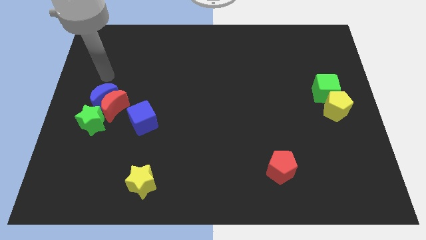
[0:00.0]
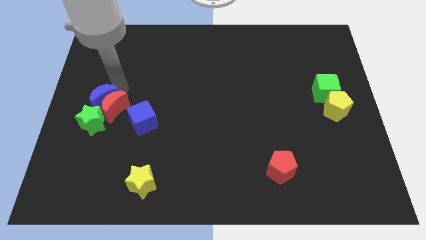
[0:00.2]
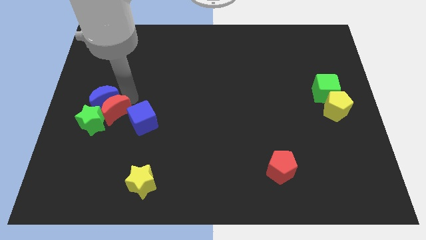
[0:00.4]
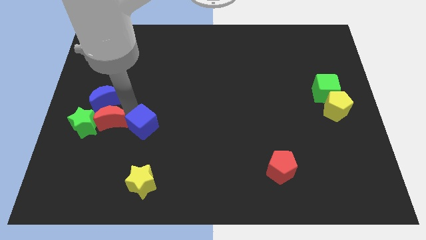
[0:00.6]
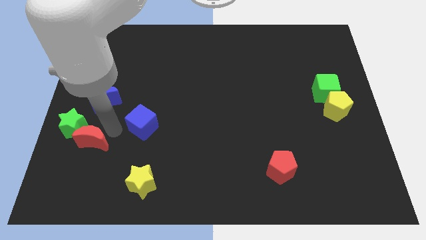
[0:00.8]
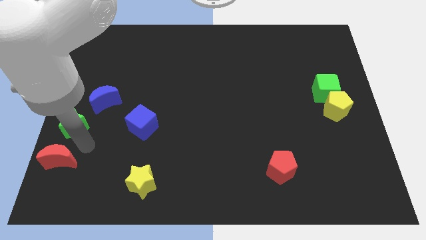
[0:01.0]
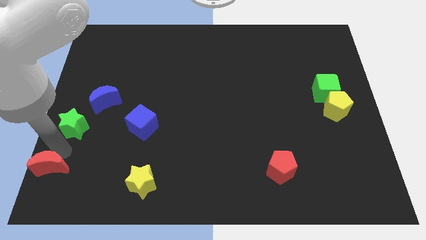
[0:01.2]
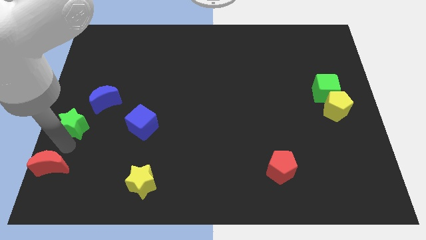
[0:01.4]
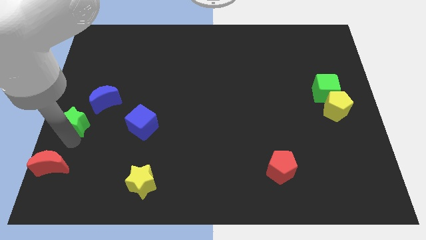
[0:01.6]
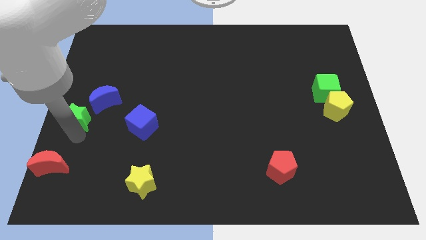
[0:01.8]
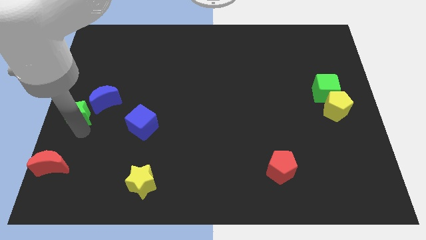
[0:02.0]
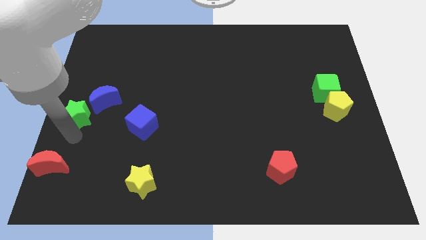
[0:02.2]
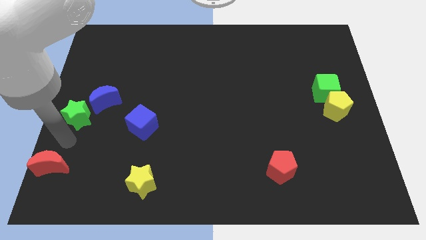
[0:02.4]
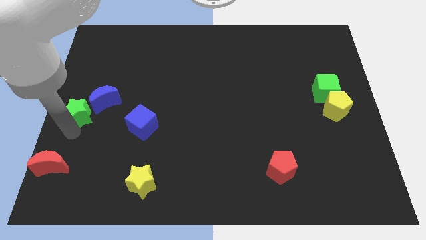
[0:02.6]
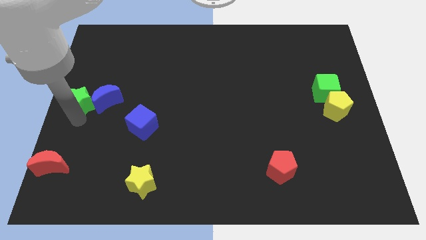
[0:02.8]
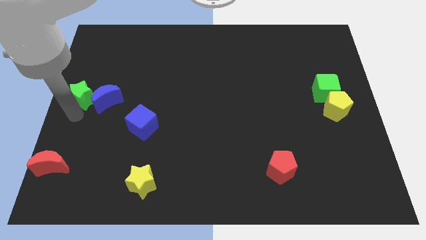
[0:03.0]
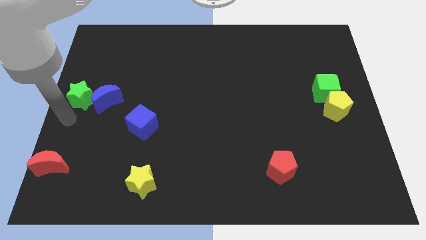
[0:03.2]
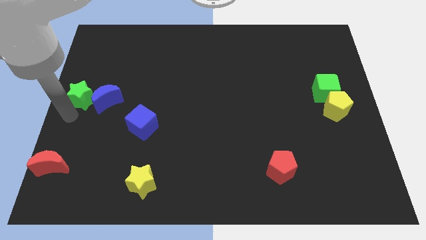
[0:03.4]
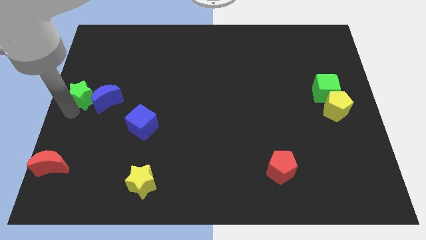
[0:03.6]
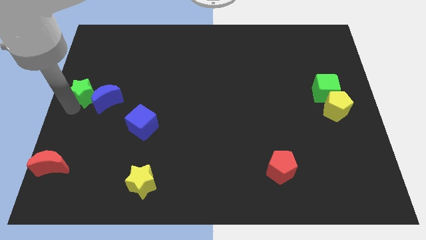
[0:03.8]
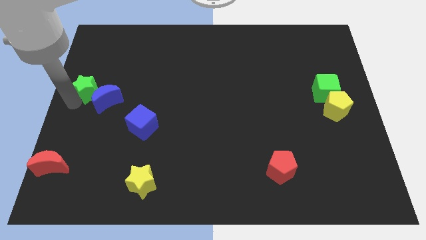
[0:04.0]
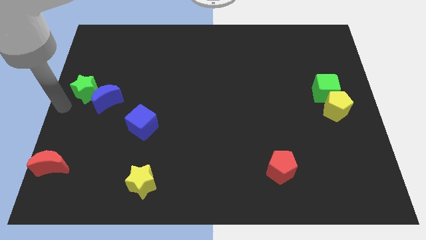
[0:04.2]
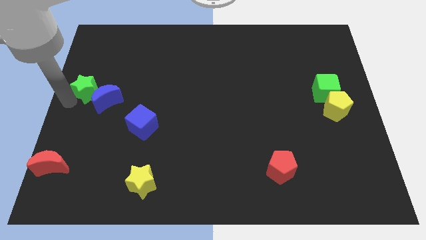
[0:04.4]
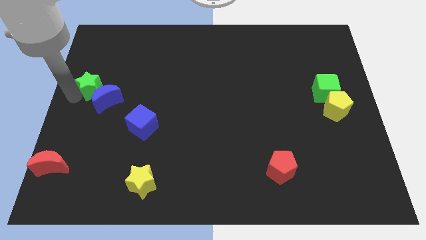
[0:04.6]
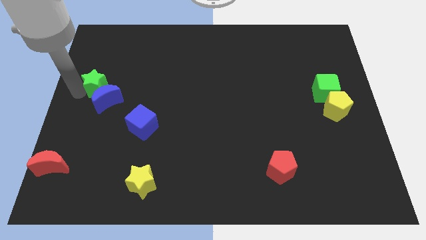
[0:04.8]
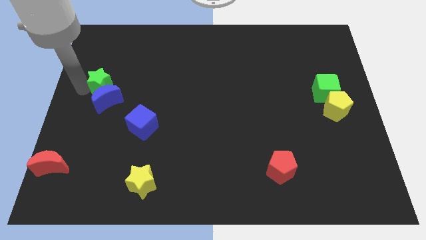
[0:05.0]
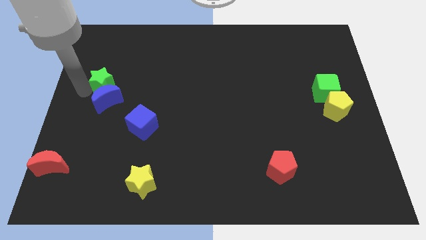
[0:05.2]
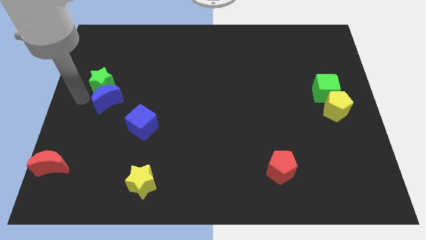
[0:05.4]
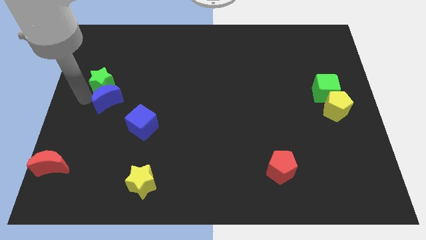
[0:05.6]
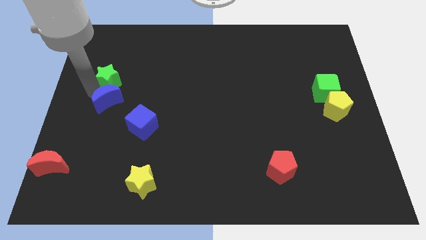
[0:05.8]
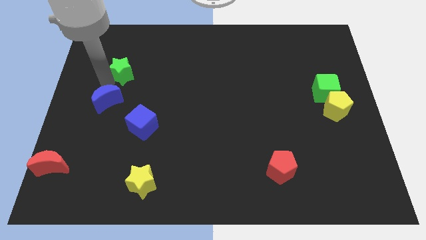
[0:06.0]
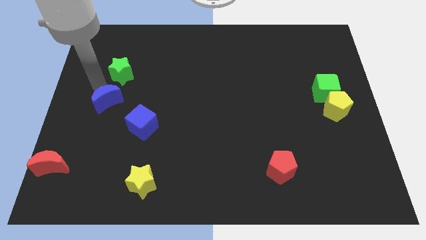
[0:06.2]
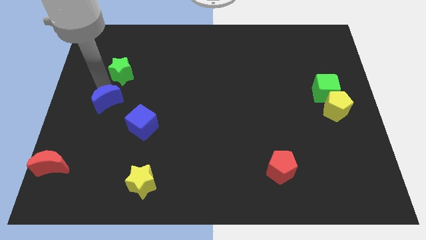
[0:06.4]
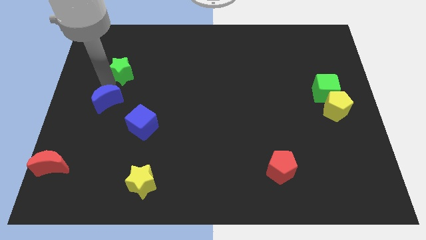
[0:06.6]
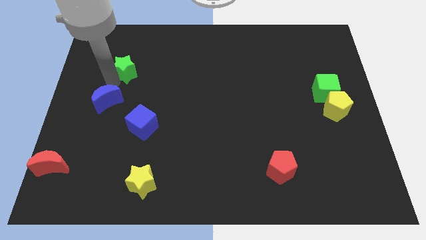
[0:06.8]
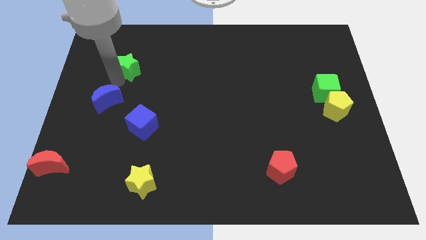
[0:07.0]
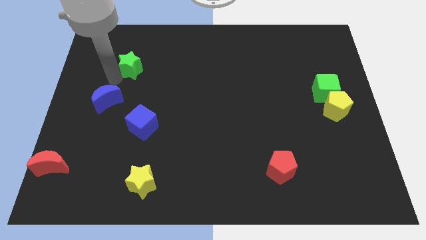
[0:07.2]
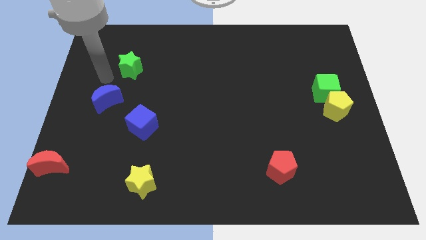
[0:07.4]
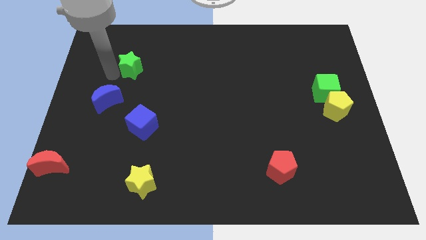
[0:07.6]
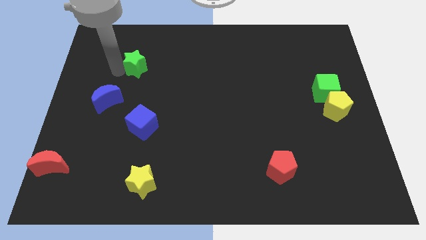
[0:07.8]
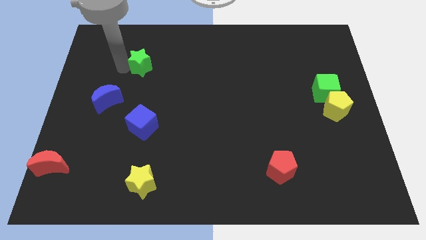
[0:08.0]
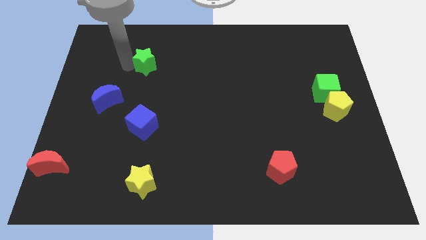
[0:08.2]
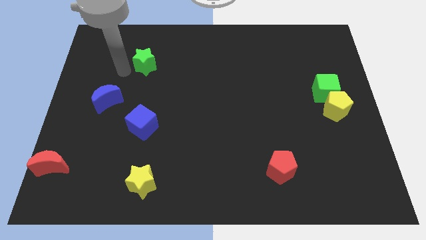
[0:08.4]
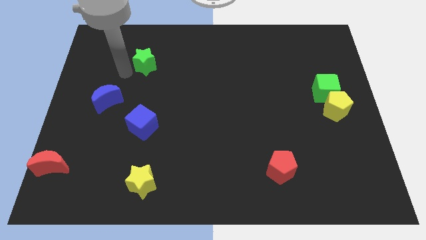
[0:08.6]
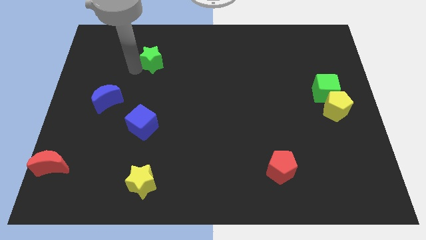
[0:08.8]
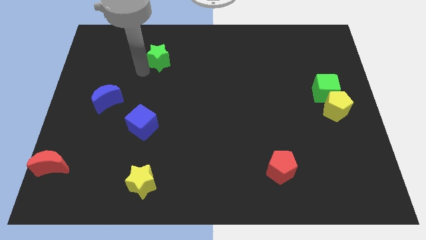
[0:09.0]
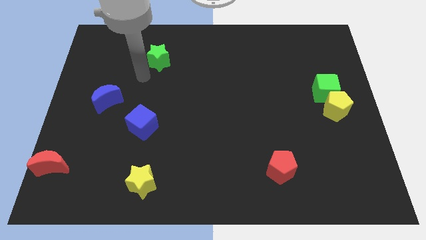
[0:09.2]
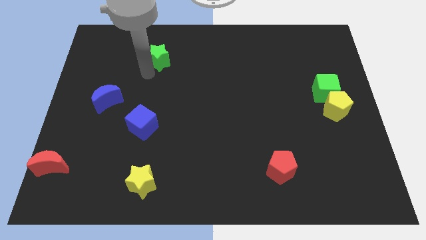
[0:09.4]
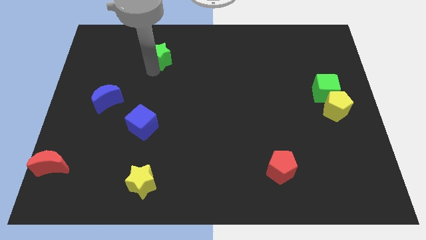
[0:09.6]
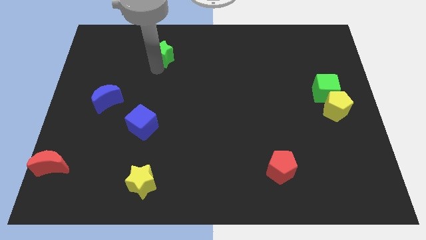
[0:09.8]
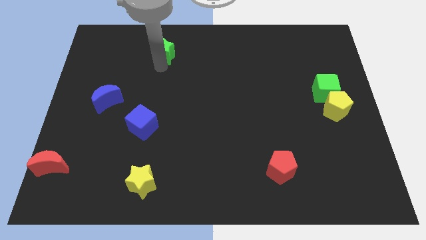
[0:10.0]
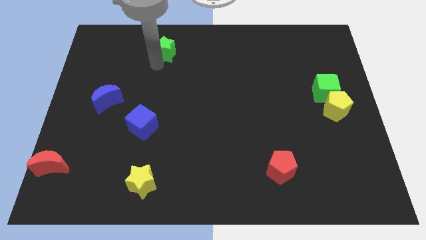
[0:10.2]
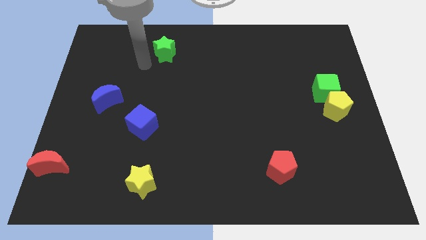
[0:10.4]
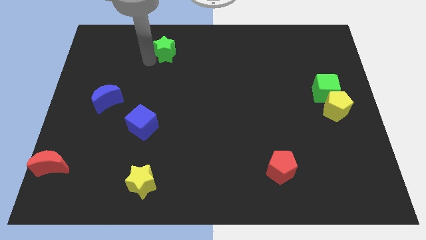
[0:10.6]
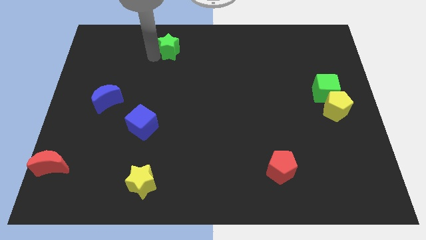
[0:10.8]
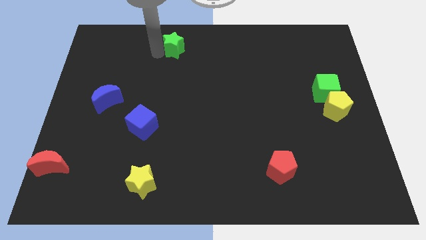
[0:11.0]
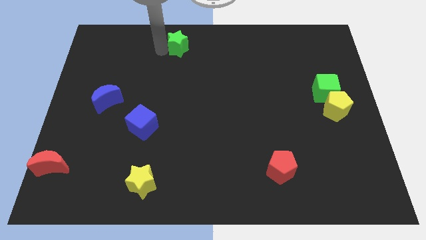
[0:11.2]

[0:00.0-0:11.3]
slide the green star to the towards your base

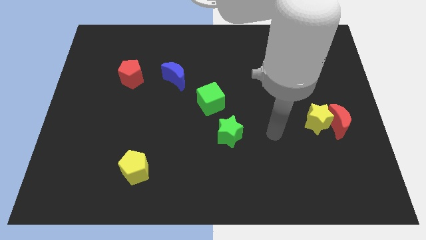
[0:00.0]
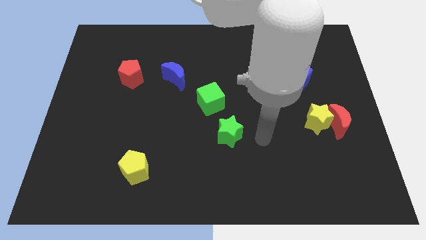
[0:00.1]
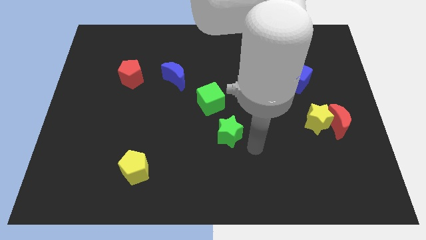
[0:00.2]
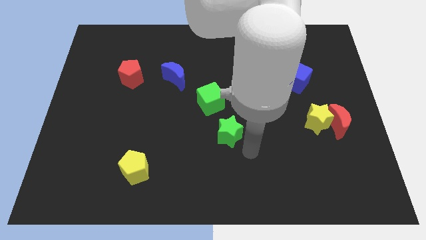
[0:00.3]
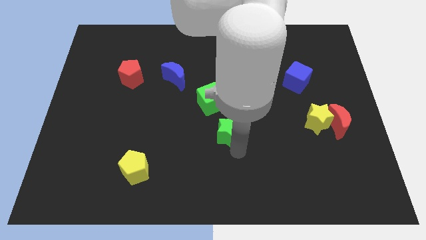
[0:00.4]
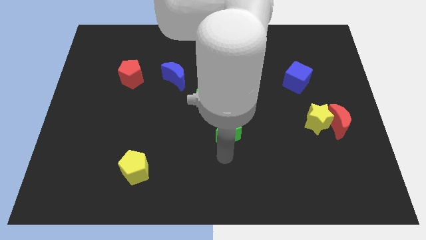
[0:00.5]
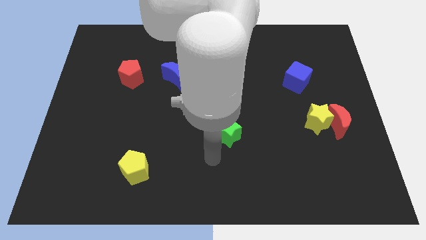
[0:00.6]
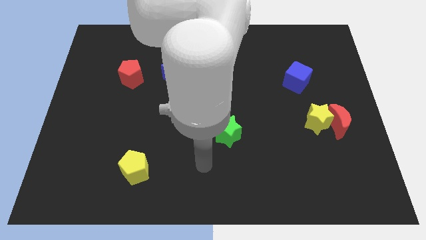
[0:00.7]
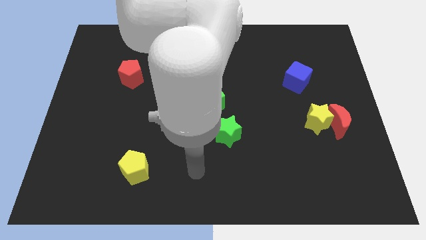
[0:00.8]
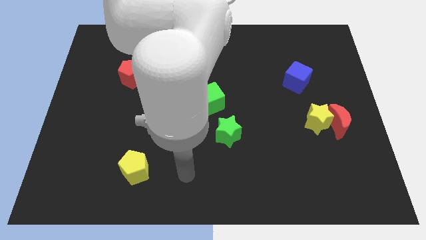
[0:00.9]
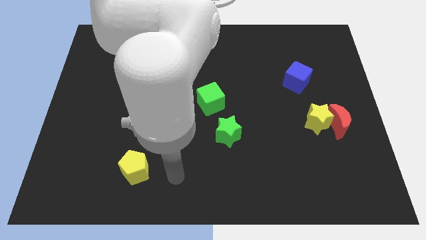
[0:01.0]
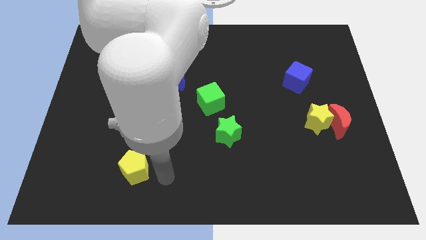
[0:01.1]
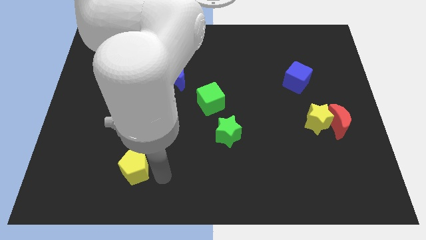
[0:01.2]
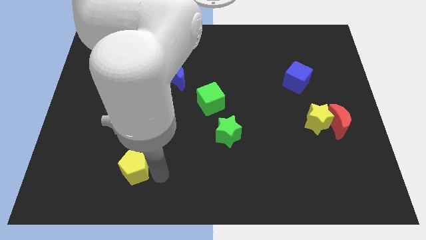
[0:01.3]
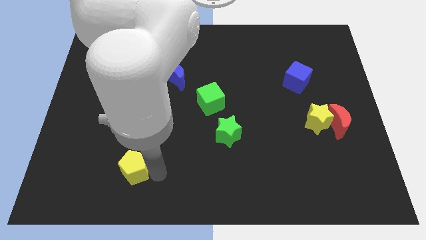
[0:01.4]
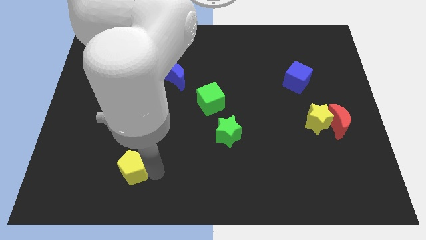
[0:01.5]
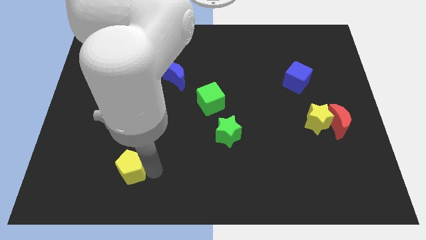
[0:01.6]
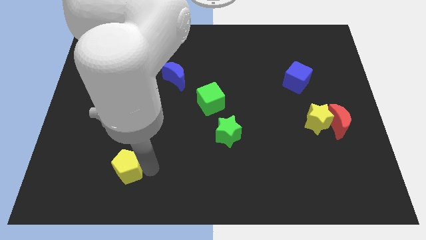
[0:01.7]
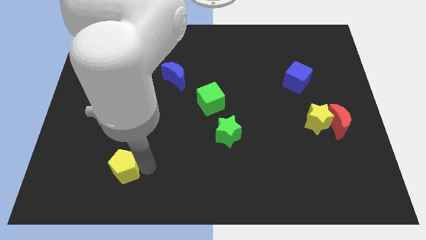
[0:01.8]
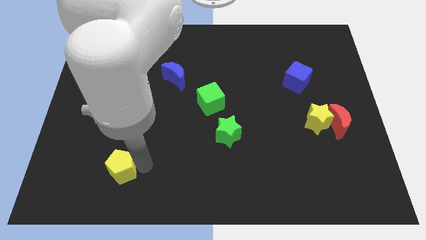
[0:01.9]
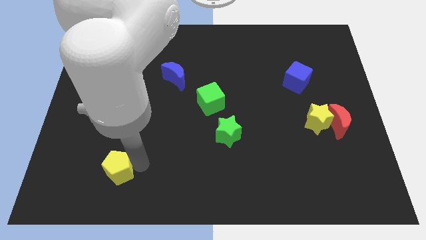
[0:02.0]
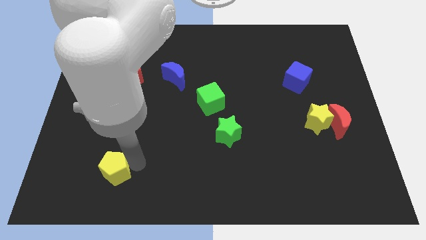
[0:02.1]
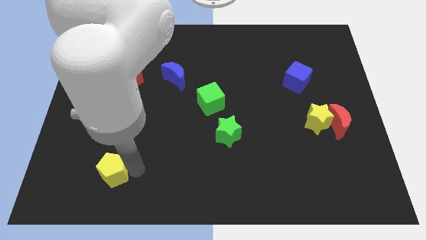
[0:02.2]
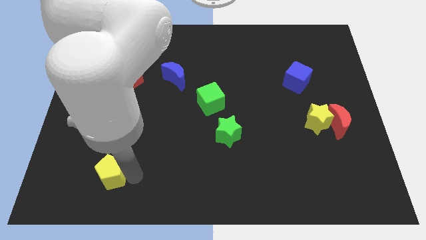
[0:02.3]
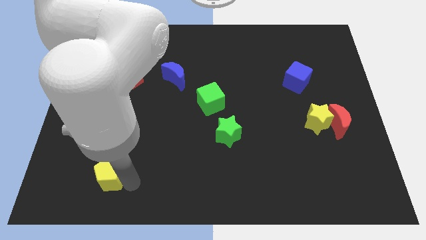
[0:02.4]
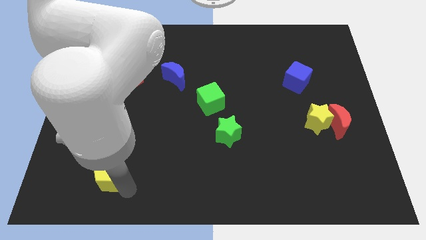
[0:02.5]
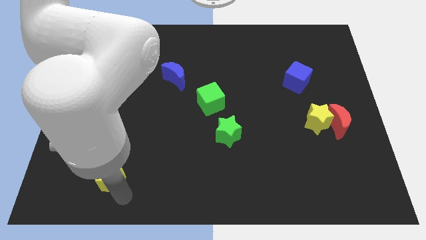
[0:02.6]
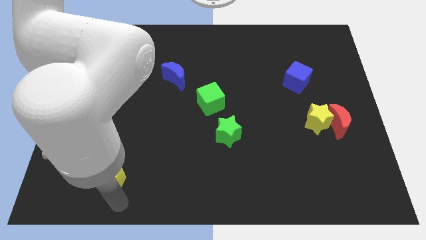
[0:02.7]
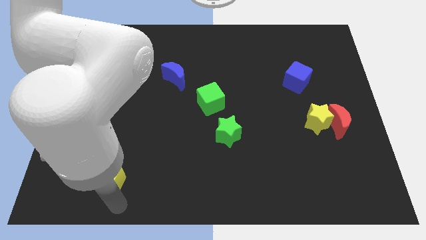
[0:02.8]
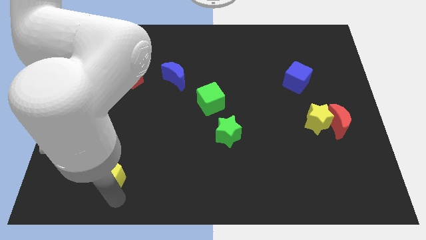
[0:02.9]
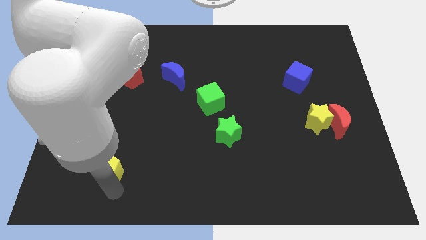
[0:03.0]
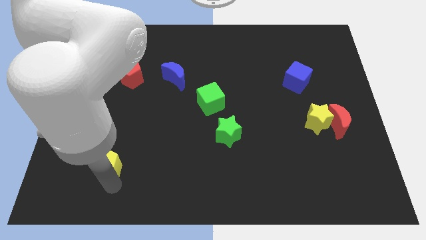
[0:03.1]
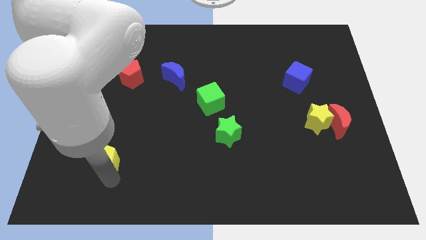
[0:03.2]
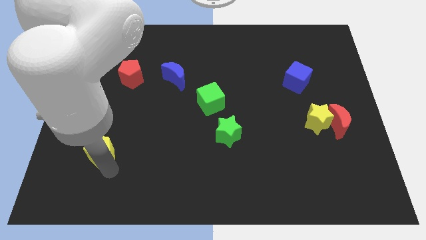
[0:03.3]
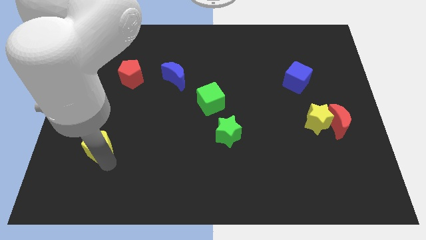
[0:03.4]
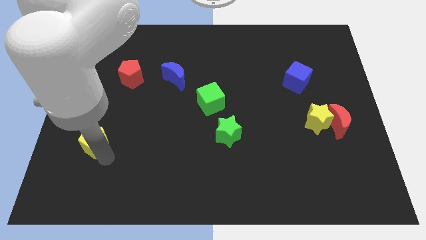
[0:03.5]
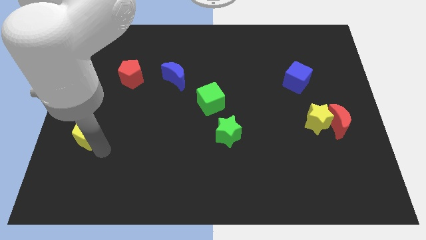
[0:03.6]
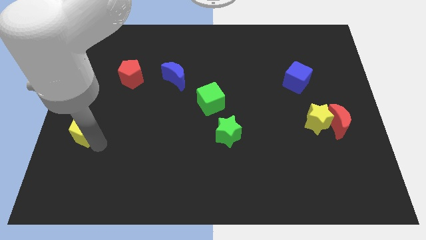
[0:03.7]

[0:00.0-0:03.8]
put the yellow pentagon to the center left
